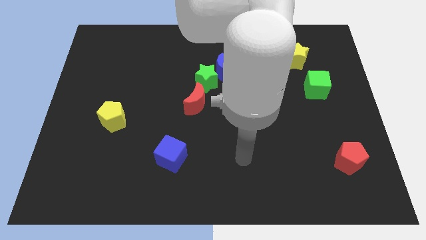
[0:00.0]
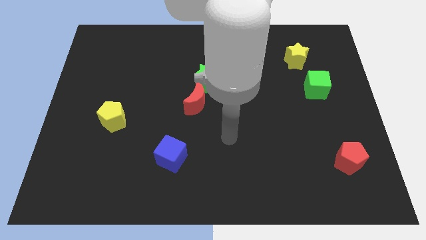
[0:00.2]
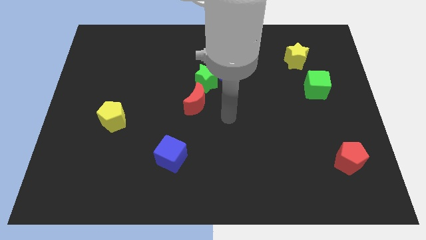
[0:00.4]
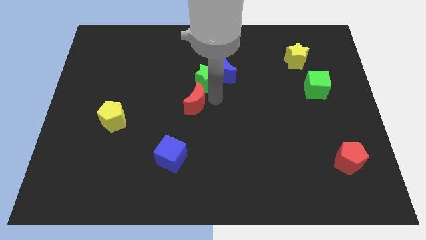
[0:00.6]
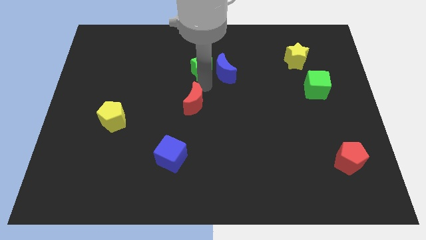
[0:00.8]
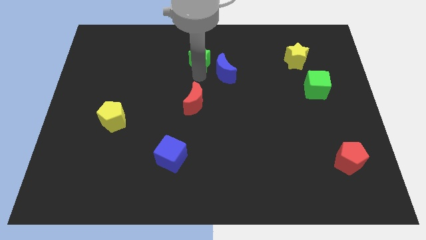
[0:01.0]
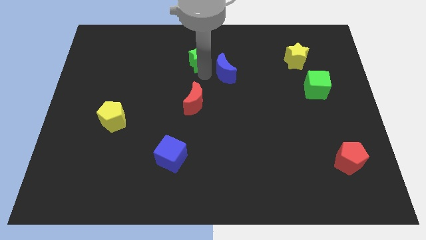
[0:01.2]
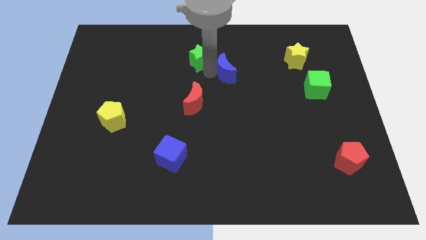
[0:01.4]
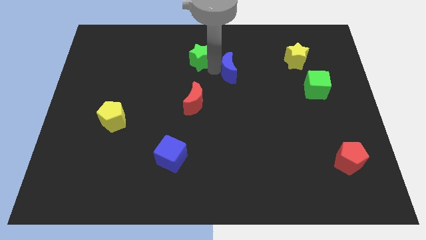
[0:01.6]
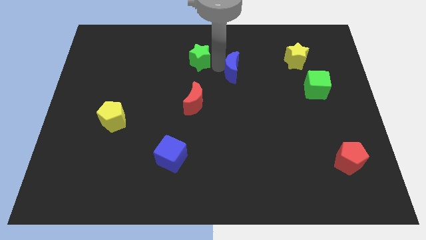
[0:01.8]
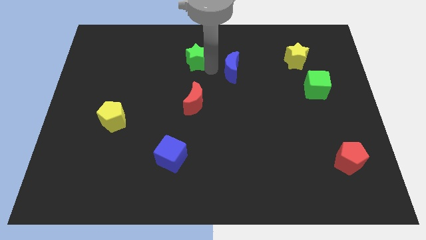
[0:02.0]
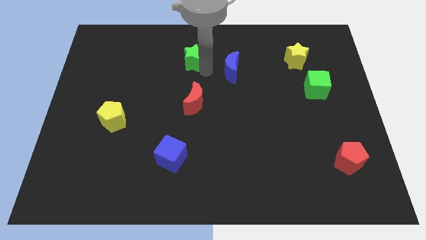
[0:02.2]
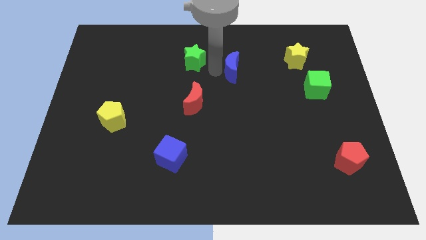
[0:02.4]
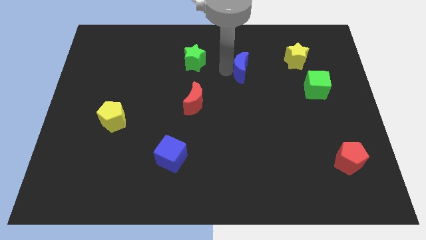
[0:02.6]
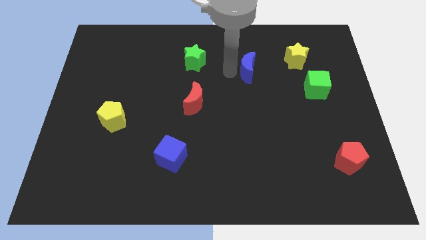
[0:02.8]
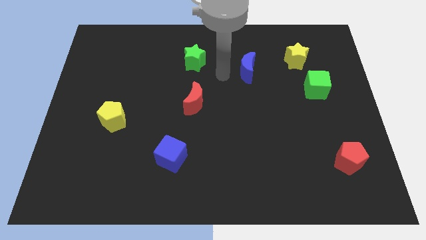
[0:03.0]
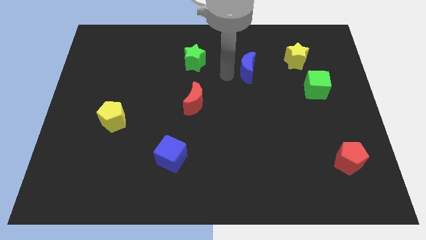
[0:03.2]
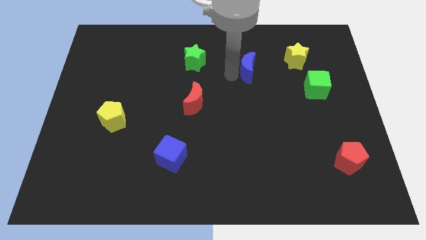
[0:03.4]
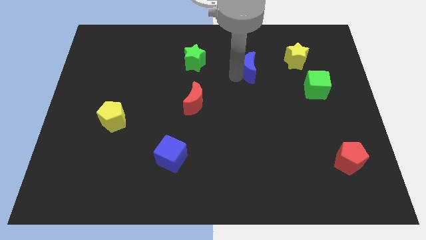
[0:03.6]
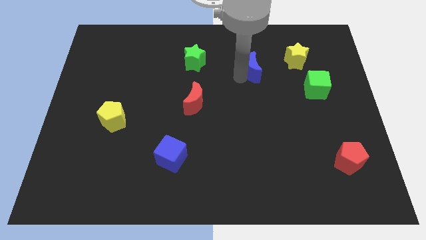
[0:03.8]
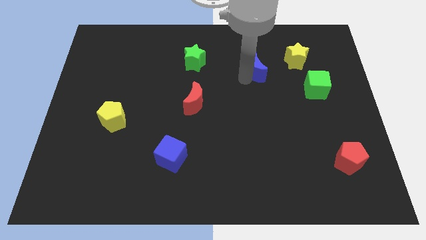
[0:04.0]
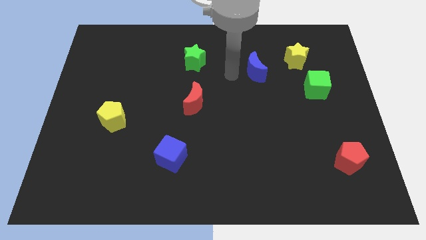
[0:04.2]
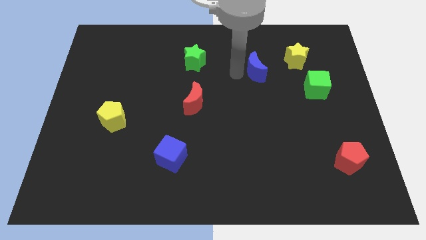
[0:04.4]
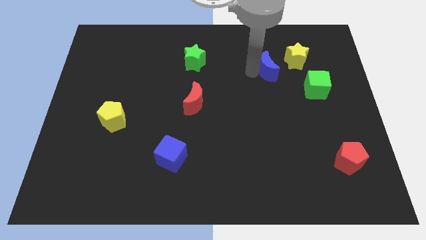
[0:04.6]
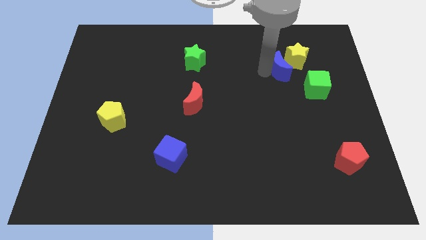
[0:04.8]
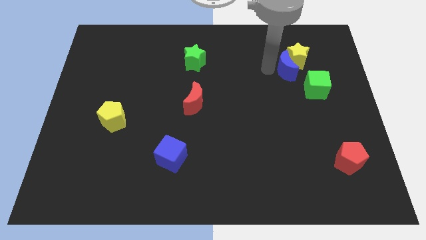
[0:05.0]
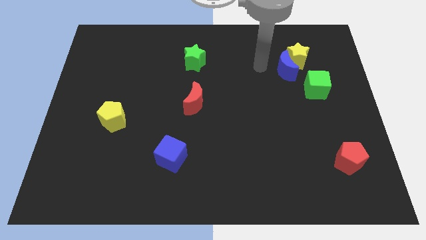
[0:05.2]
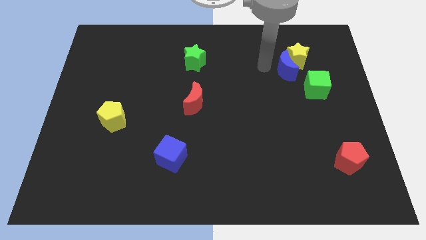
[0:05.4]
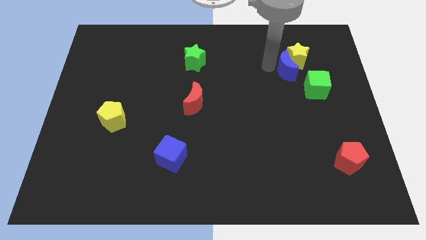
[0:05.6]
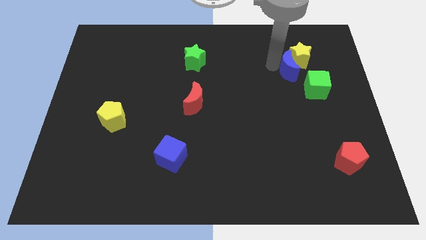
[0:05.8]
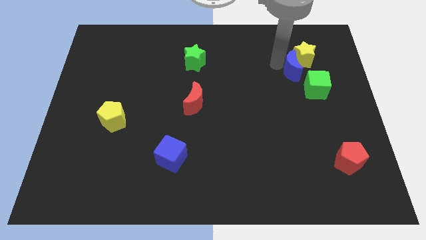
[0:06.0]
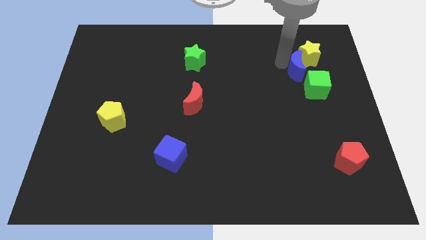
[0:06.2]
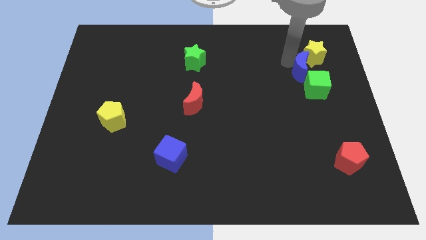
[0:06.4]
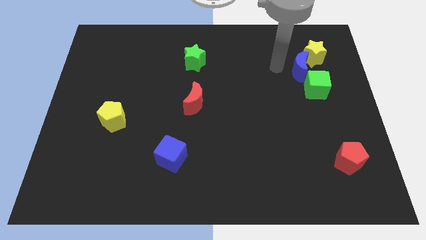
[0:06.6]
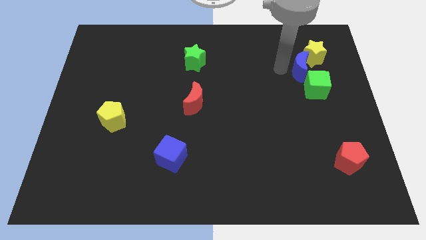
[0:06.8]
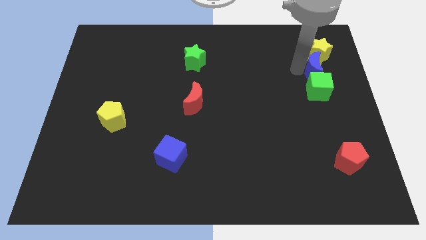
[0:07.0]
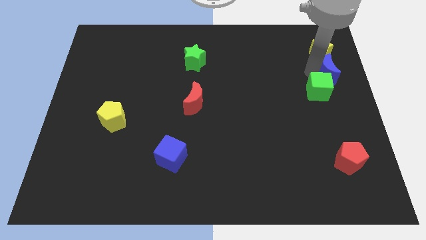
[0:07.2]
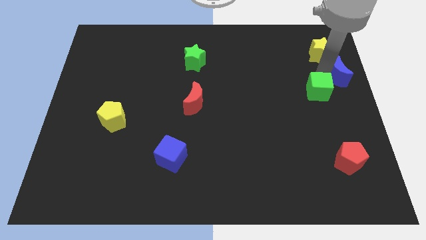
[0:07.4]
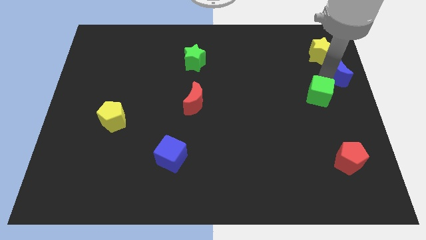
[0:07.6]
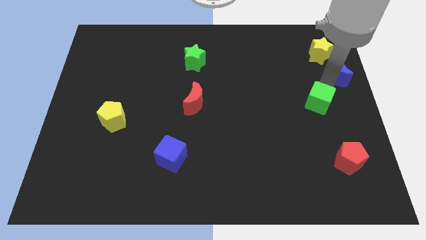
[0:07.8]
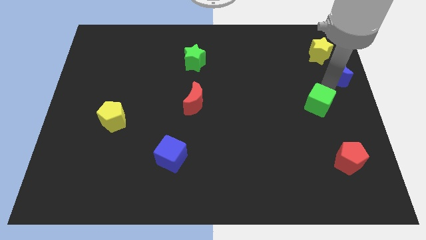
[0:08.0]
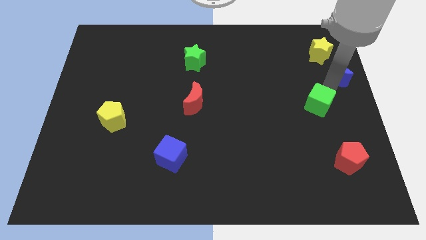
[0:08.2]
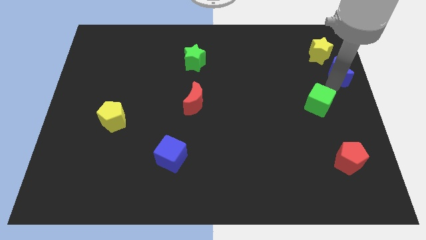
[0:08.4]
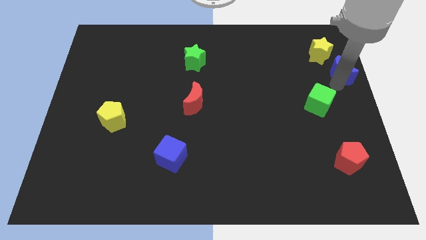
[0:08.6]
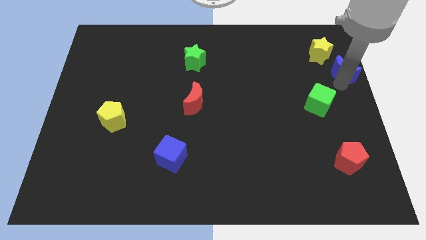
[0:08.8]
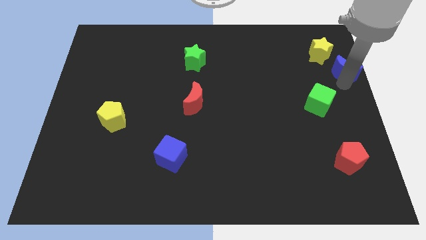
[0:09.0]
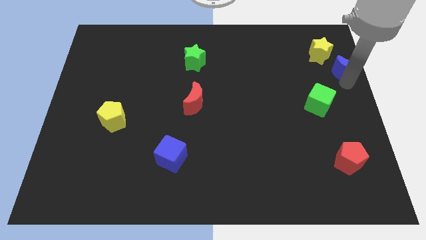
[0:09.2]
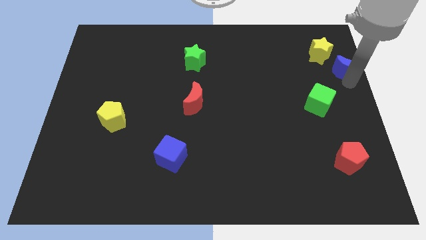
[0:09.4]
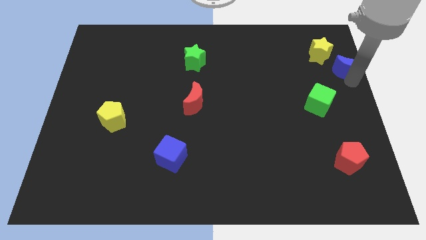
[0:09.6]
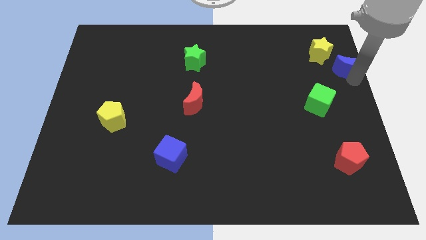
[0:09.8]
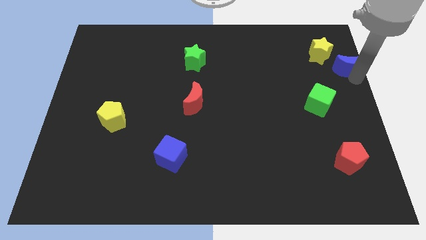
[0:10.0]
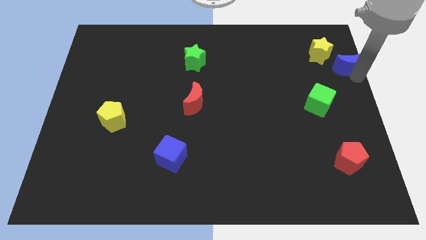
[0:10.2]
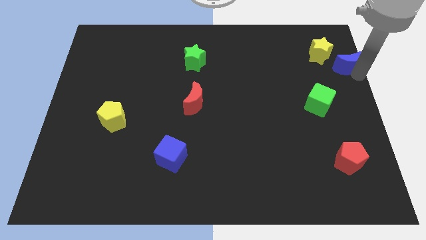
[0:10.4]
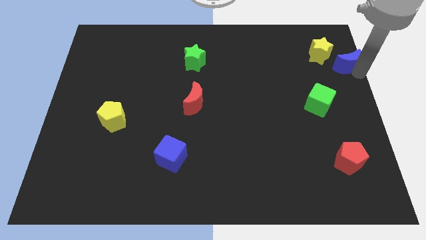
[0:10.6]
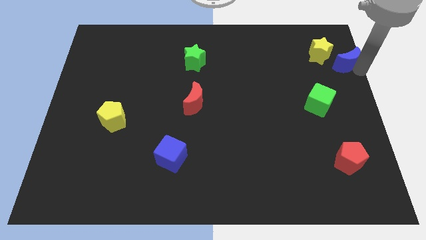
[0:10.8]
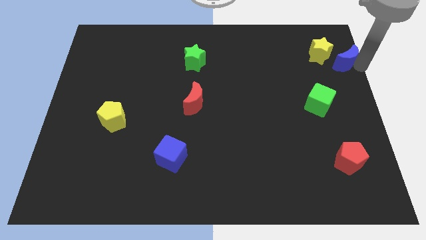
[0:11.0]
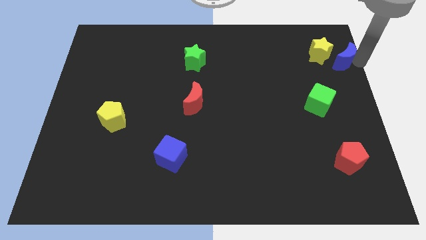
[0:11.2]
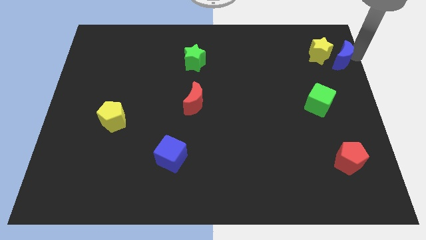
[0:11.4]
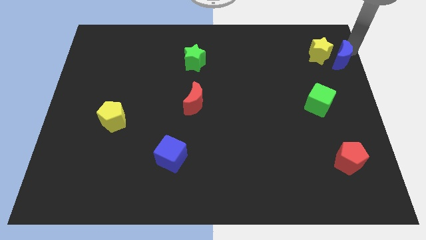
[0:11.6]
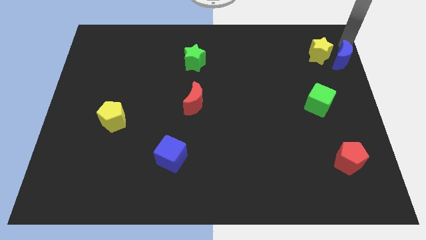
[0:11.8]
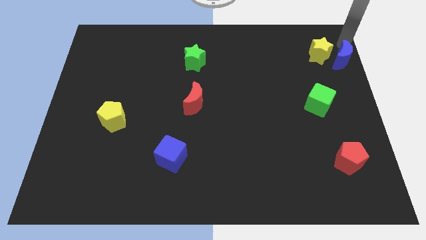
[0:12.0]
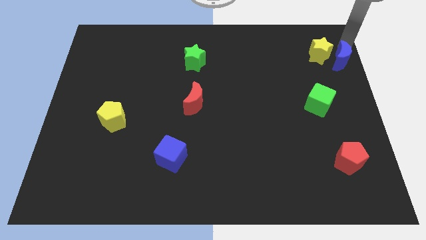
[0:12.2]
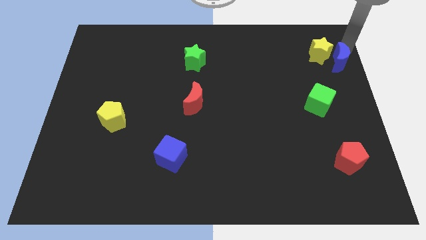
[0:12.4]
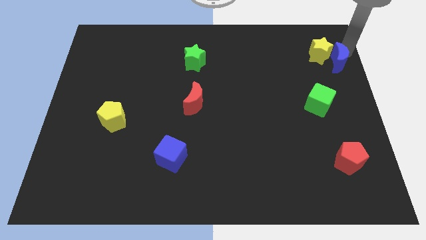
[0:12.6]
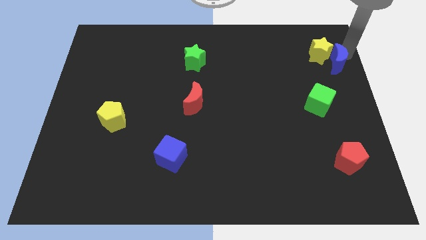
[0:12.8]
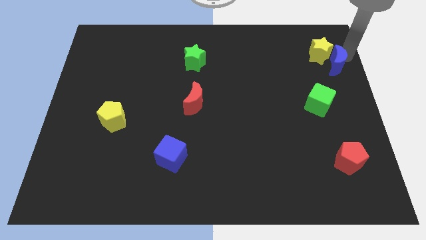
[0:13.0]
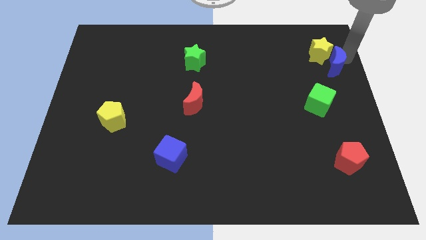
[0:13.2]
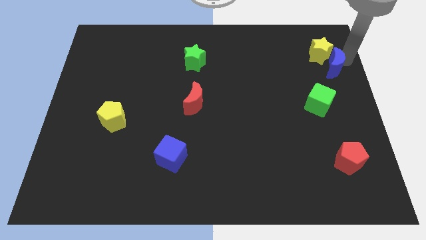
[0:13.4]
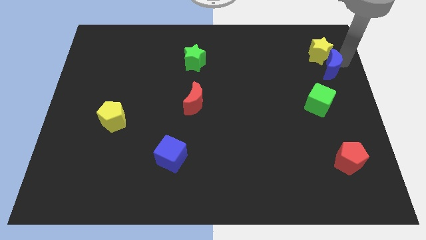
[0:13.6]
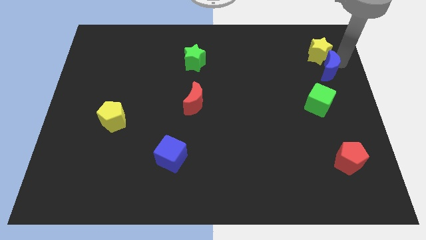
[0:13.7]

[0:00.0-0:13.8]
move the blue moon to the bottom right of the yellow star
